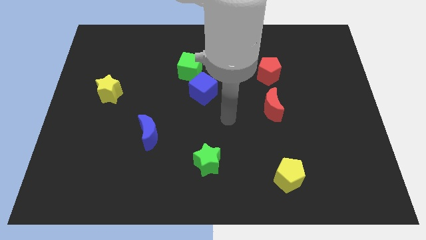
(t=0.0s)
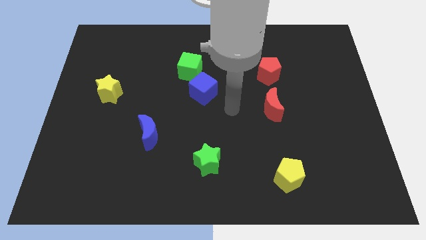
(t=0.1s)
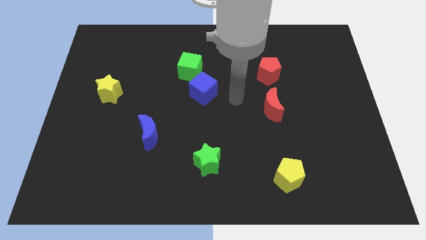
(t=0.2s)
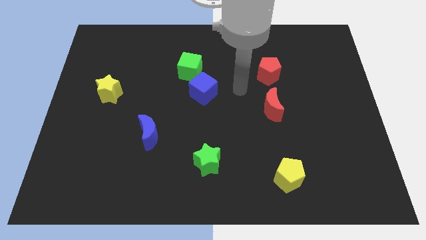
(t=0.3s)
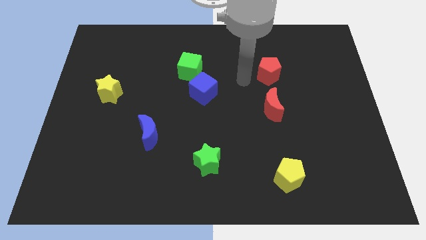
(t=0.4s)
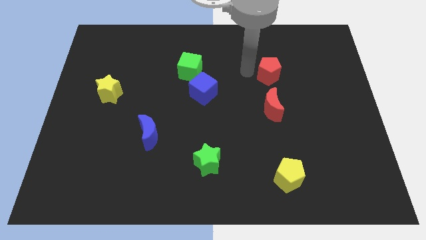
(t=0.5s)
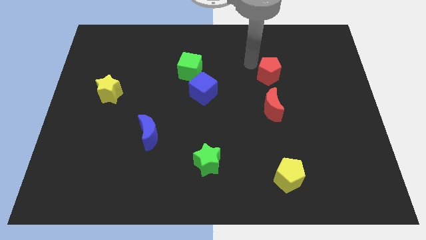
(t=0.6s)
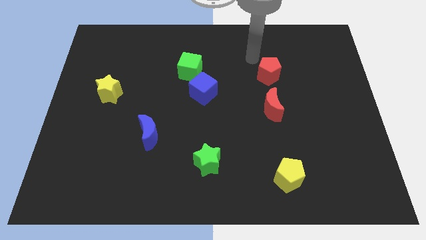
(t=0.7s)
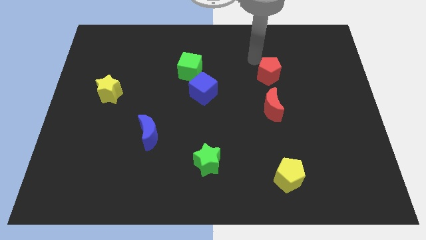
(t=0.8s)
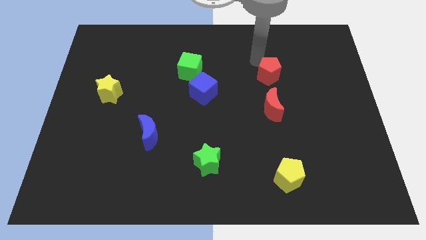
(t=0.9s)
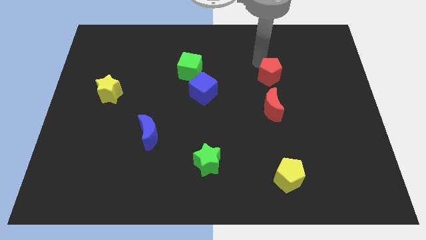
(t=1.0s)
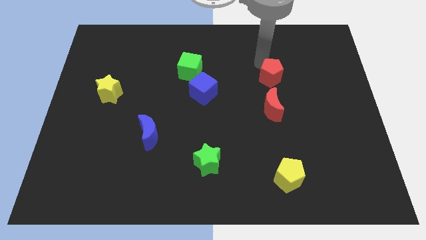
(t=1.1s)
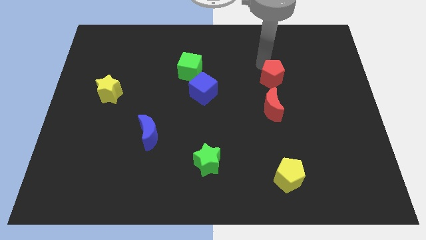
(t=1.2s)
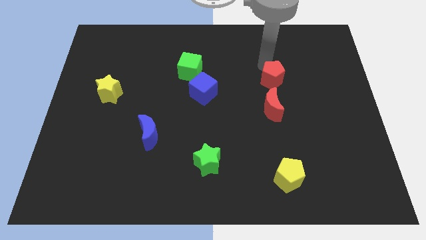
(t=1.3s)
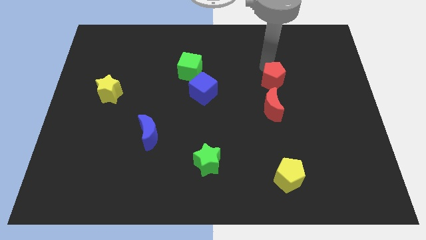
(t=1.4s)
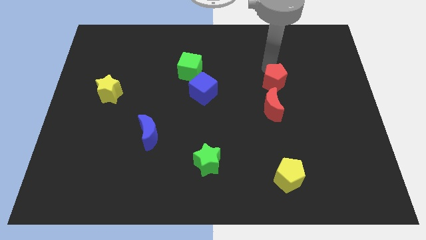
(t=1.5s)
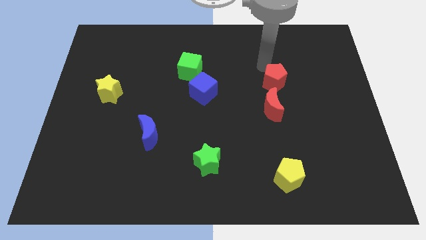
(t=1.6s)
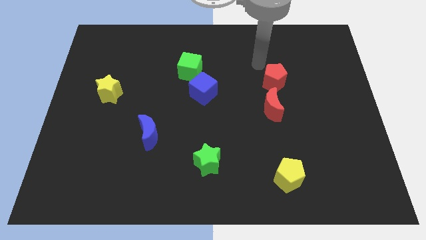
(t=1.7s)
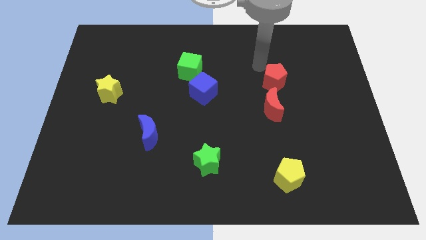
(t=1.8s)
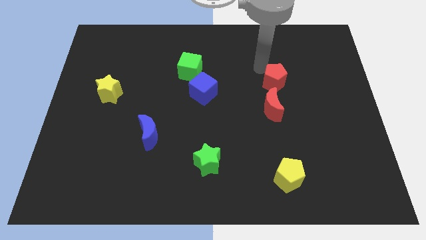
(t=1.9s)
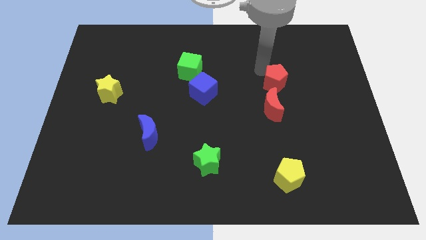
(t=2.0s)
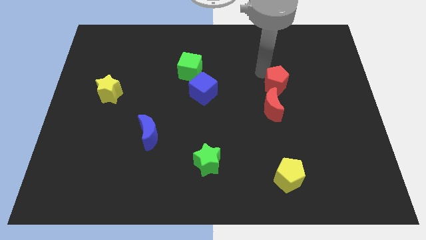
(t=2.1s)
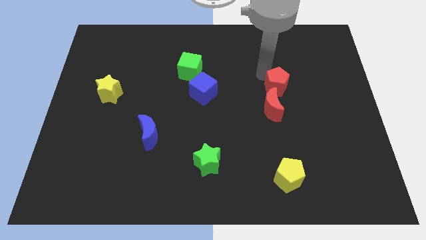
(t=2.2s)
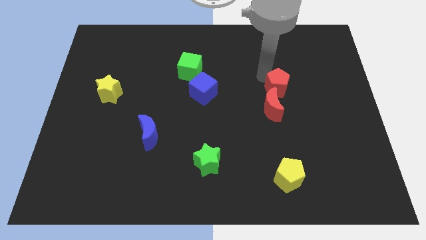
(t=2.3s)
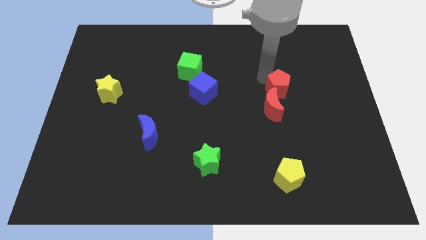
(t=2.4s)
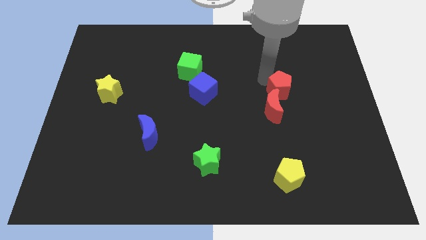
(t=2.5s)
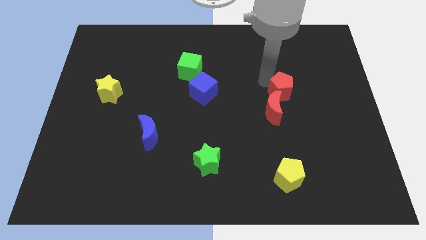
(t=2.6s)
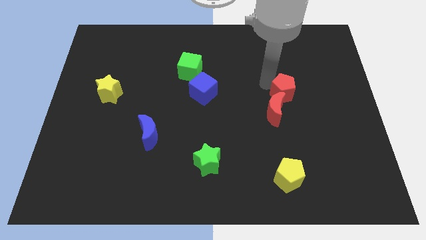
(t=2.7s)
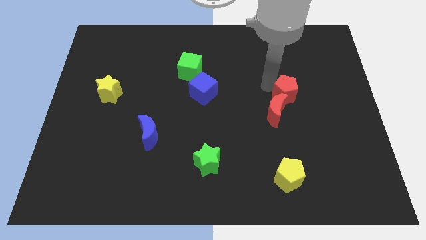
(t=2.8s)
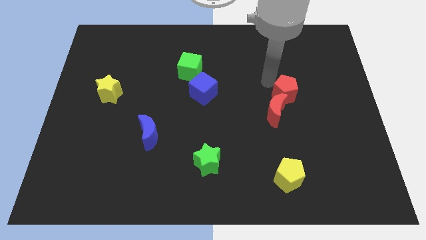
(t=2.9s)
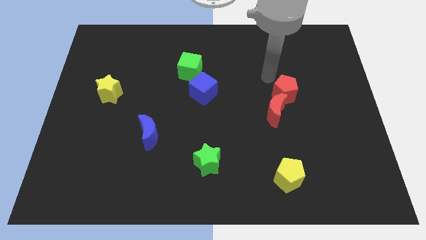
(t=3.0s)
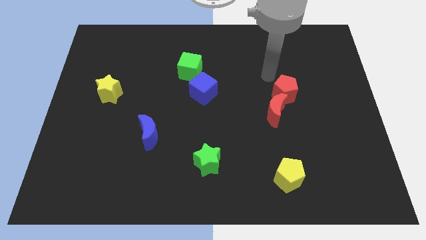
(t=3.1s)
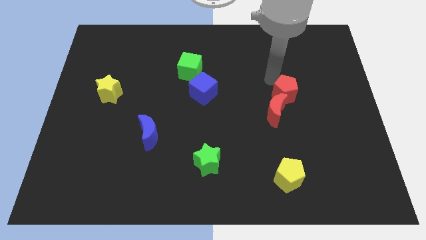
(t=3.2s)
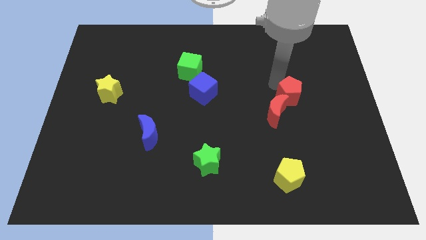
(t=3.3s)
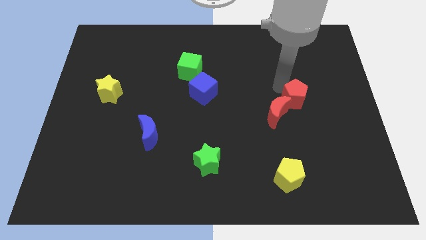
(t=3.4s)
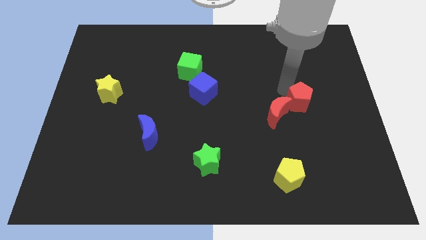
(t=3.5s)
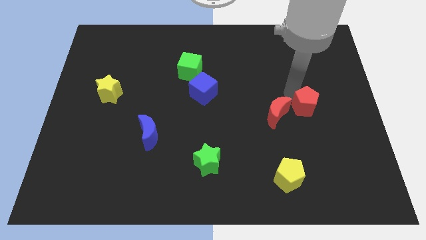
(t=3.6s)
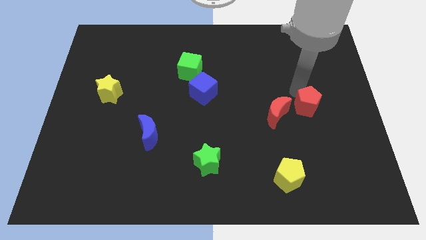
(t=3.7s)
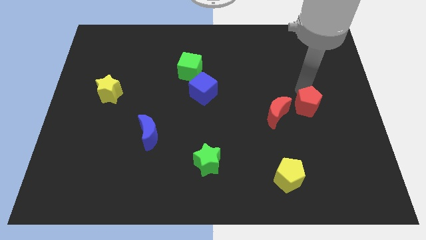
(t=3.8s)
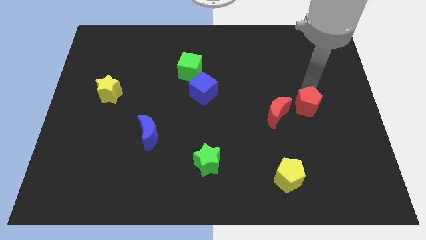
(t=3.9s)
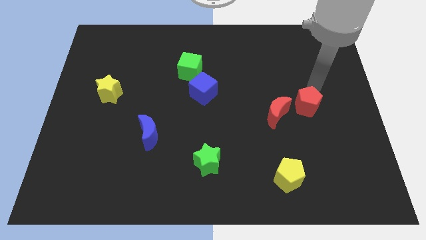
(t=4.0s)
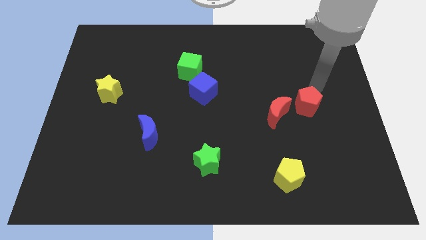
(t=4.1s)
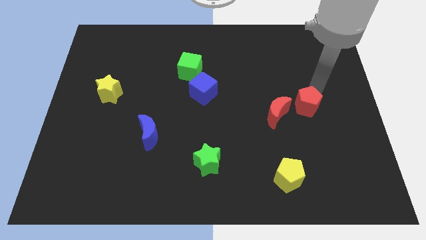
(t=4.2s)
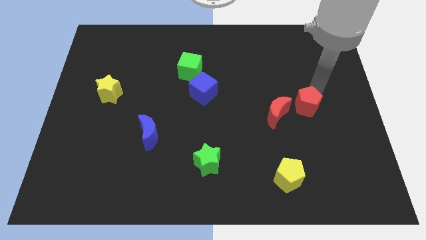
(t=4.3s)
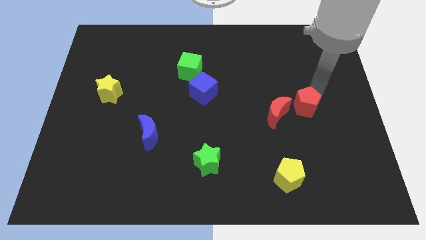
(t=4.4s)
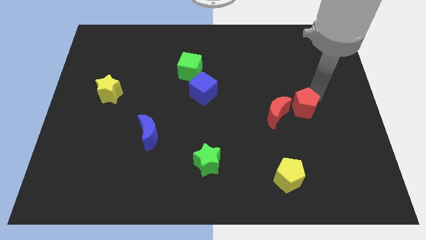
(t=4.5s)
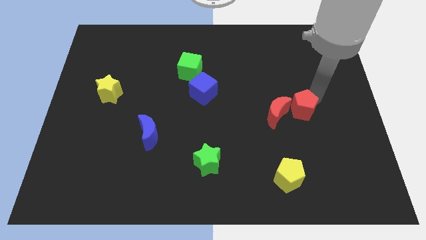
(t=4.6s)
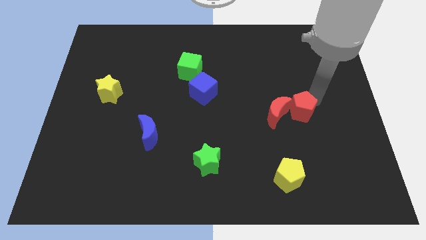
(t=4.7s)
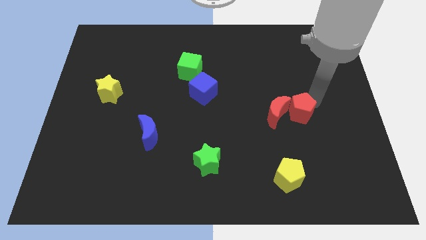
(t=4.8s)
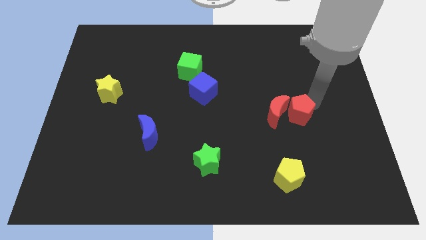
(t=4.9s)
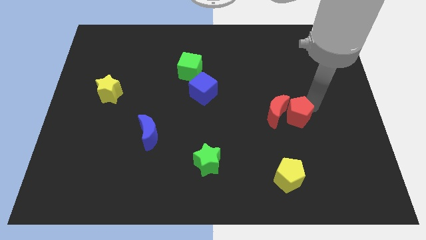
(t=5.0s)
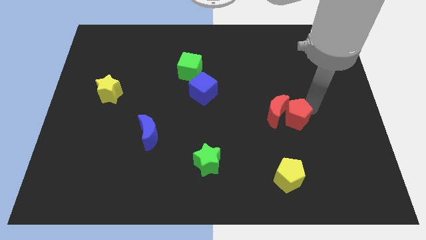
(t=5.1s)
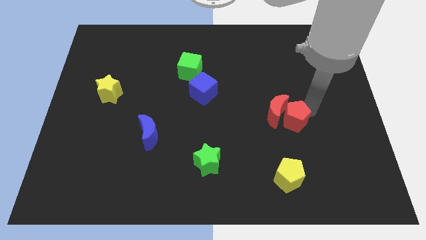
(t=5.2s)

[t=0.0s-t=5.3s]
move the red pentagon to the top of the yellow pentagon

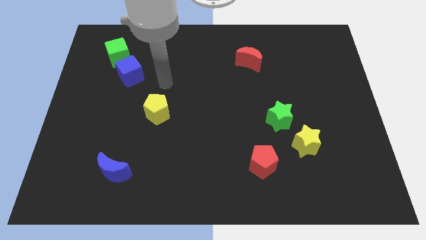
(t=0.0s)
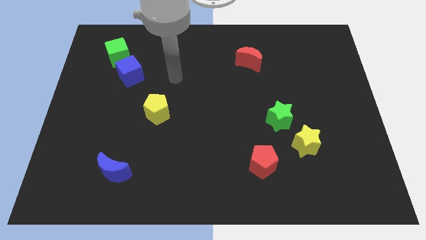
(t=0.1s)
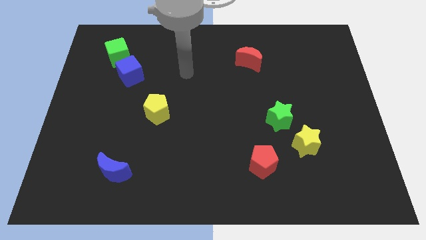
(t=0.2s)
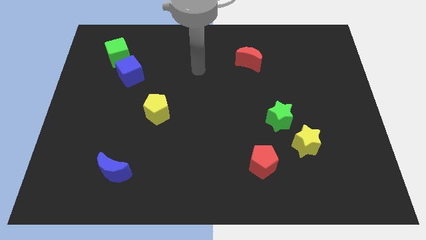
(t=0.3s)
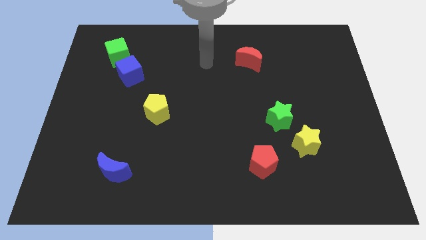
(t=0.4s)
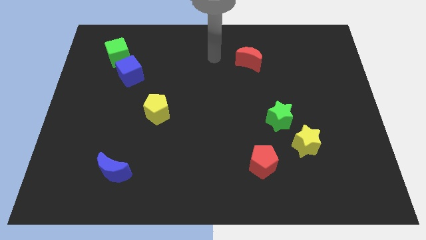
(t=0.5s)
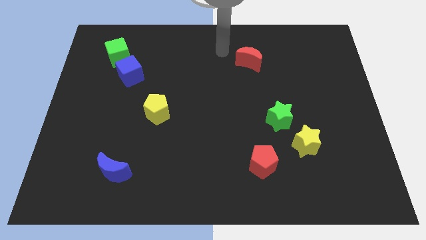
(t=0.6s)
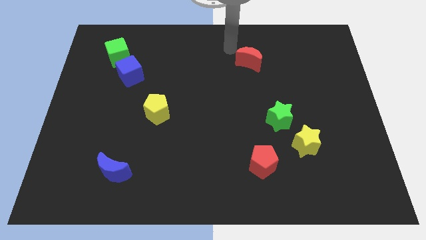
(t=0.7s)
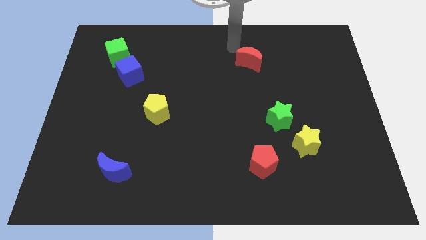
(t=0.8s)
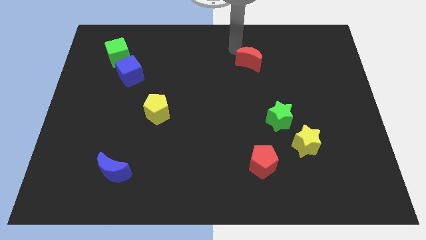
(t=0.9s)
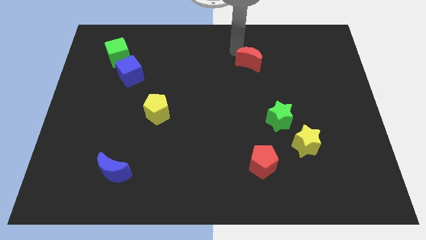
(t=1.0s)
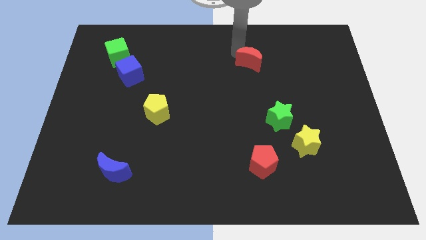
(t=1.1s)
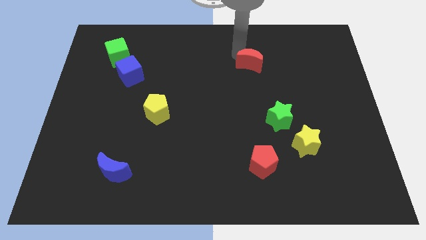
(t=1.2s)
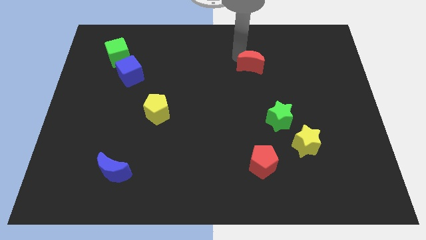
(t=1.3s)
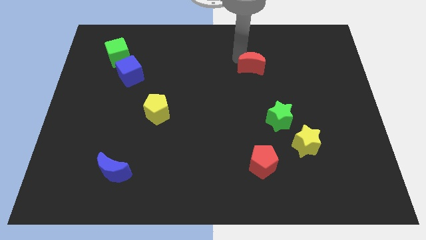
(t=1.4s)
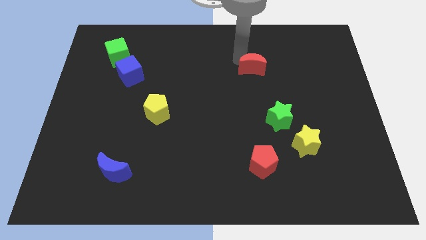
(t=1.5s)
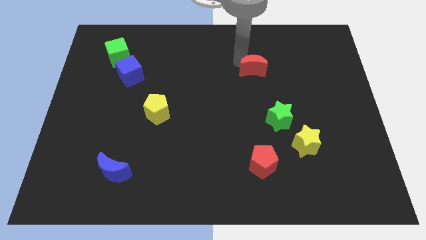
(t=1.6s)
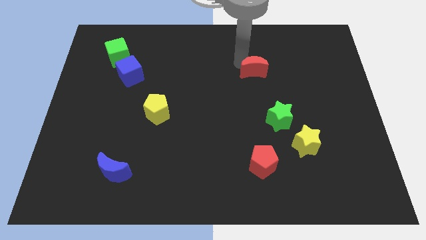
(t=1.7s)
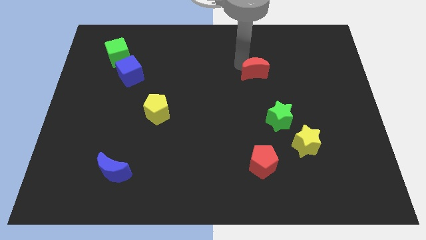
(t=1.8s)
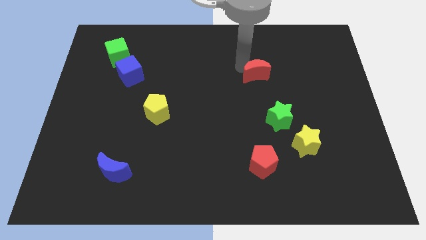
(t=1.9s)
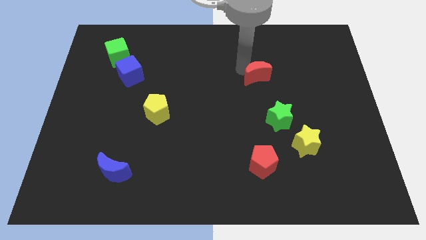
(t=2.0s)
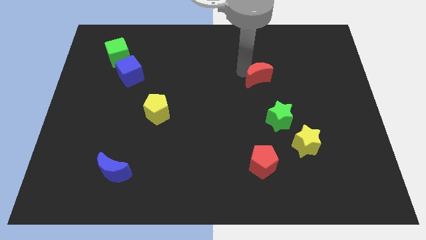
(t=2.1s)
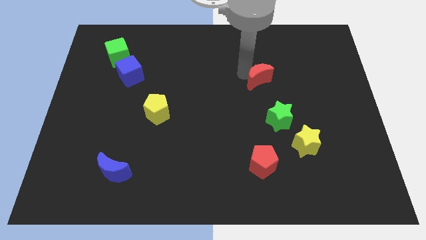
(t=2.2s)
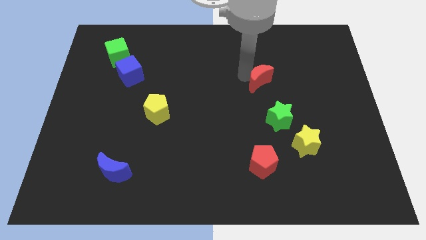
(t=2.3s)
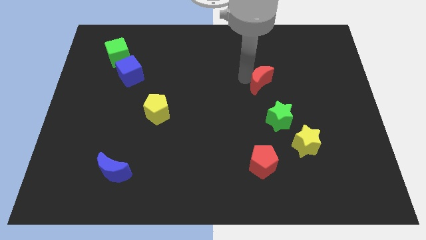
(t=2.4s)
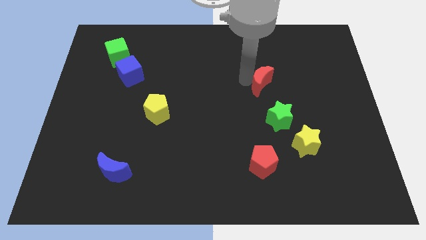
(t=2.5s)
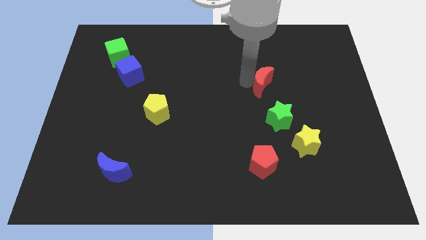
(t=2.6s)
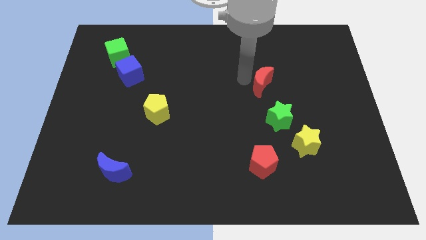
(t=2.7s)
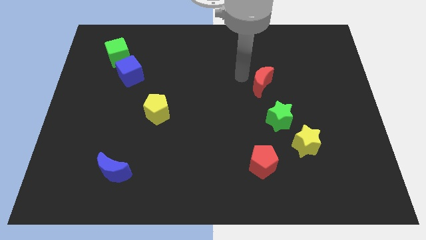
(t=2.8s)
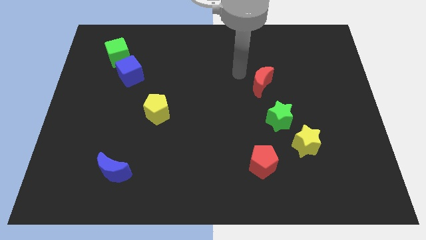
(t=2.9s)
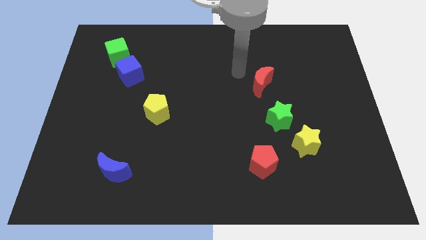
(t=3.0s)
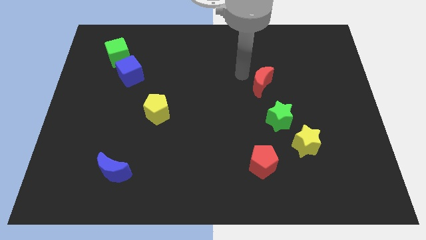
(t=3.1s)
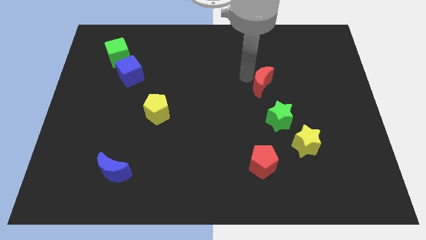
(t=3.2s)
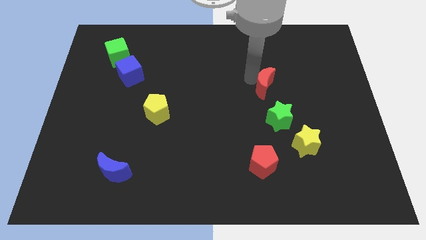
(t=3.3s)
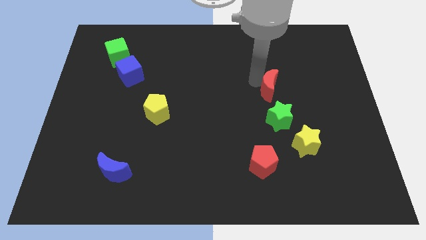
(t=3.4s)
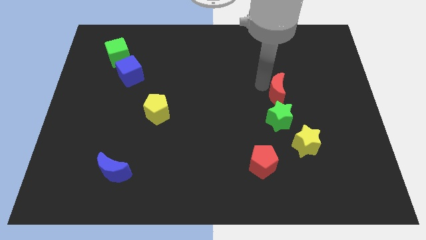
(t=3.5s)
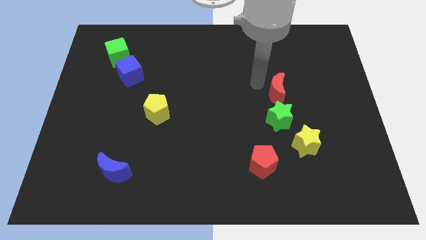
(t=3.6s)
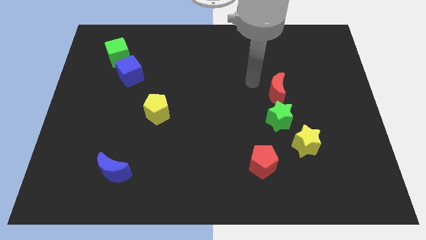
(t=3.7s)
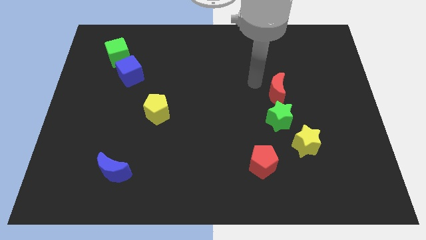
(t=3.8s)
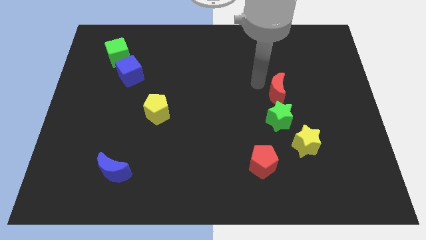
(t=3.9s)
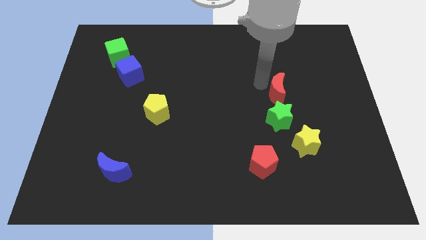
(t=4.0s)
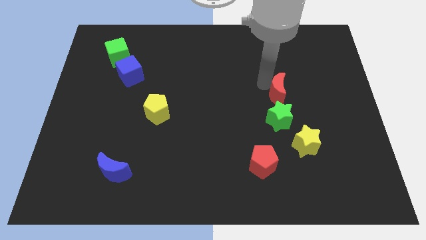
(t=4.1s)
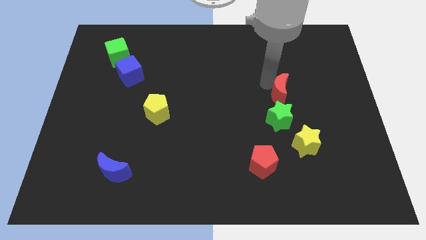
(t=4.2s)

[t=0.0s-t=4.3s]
put the red moon to the top right of the green star
